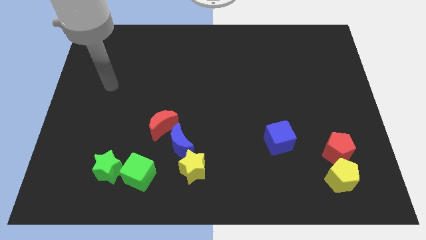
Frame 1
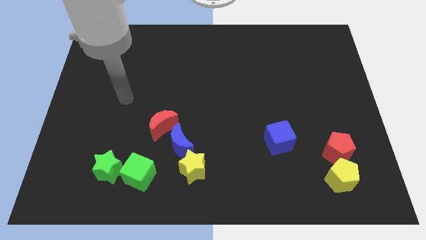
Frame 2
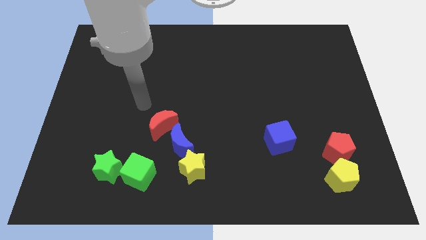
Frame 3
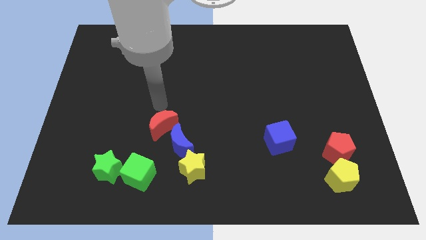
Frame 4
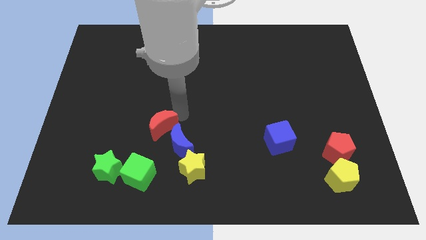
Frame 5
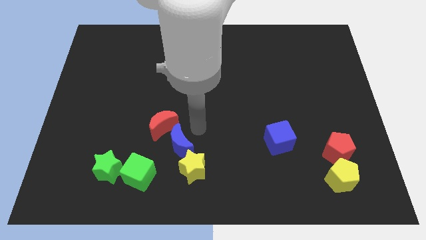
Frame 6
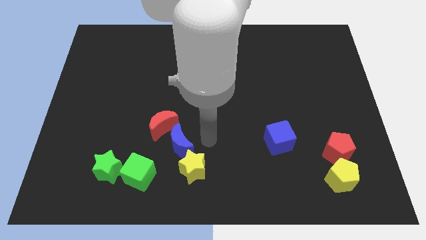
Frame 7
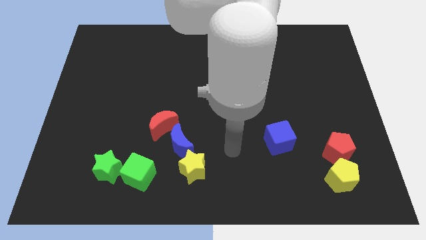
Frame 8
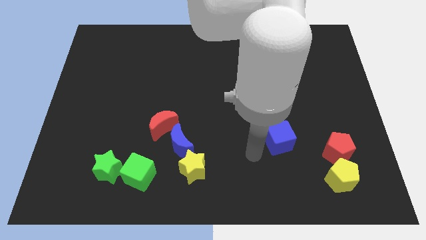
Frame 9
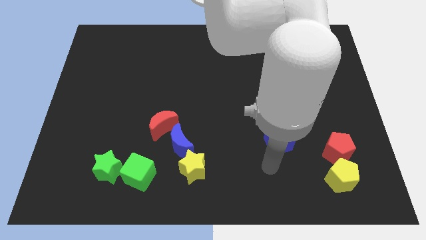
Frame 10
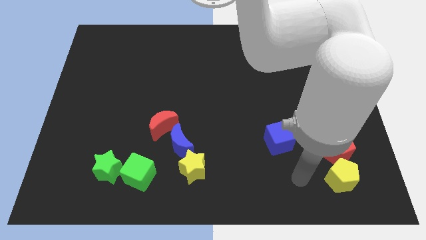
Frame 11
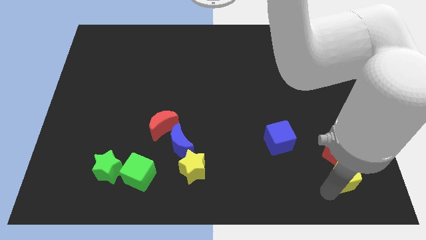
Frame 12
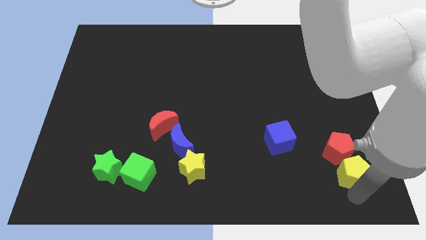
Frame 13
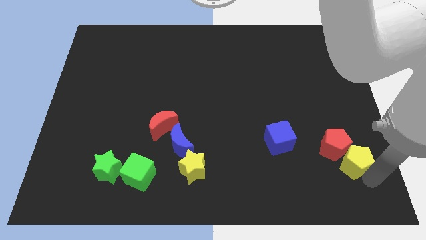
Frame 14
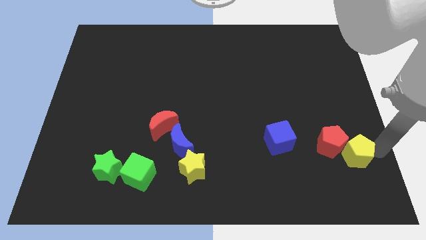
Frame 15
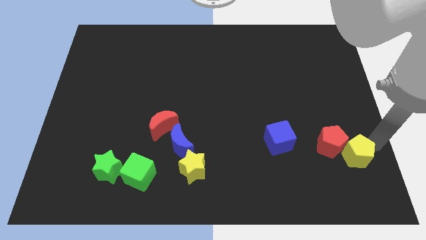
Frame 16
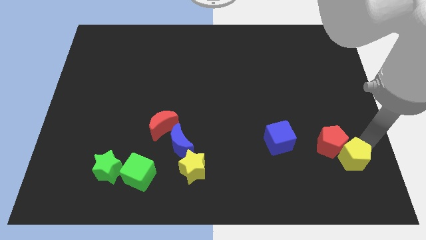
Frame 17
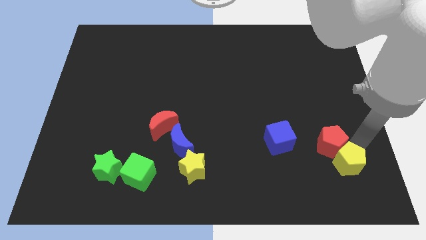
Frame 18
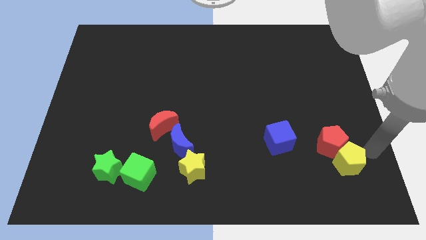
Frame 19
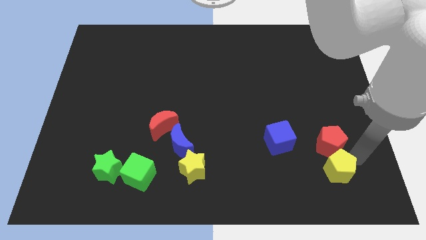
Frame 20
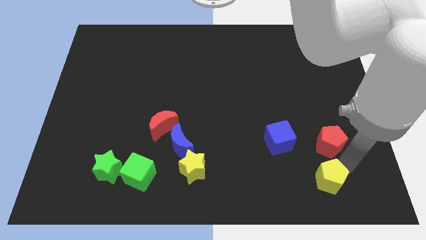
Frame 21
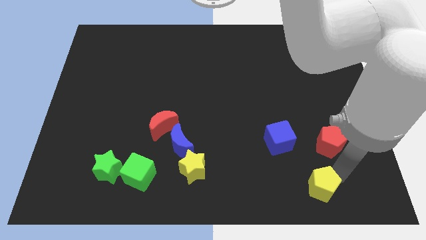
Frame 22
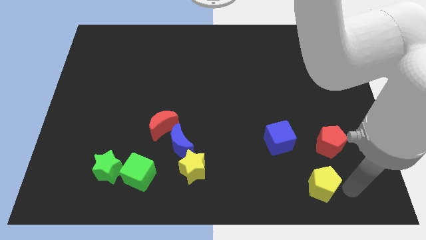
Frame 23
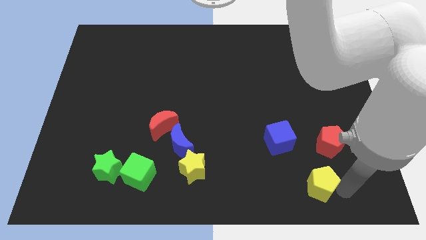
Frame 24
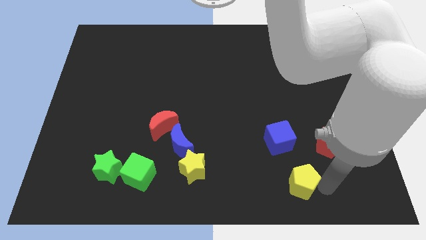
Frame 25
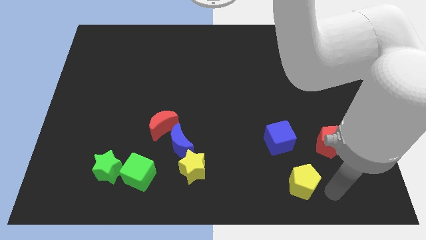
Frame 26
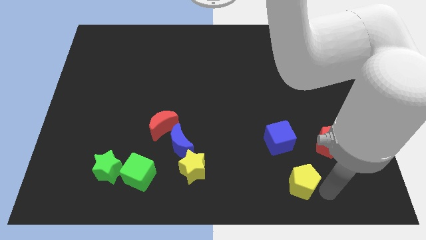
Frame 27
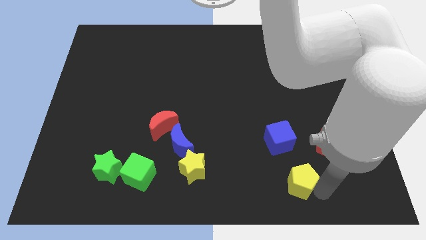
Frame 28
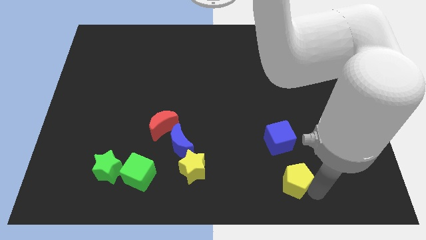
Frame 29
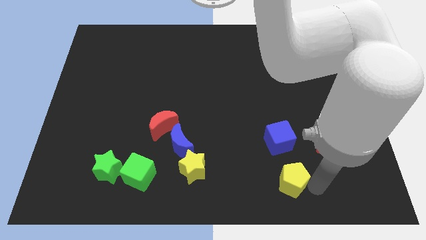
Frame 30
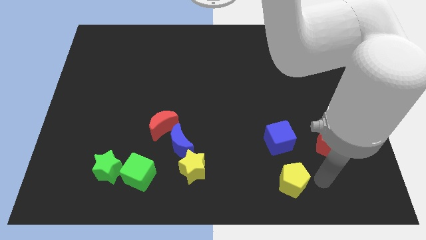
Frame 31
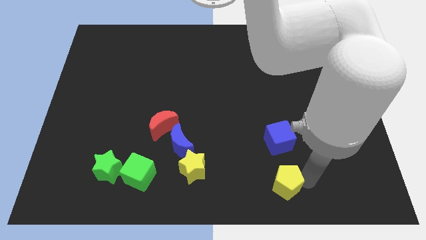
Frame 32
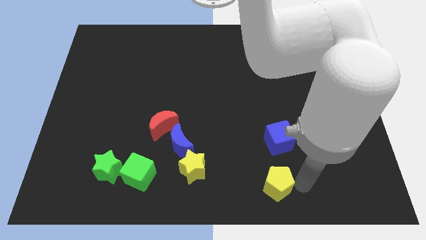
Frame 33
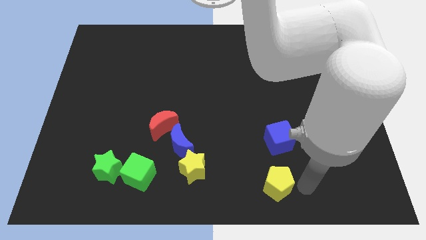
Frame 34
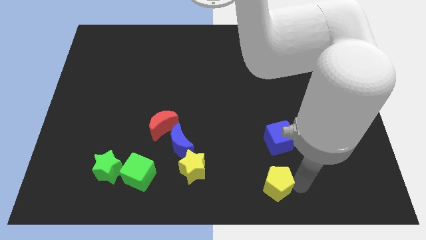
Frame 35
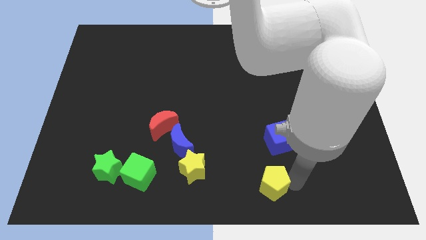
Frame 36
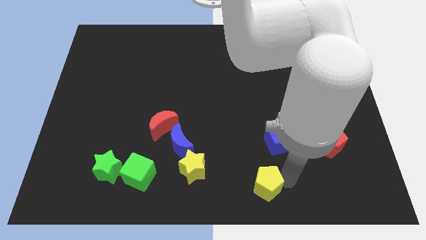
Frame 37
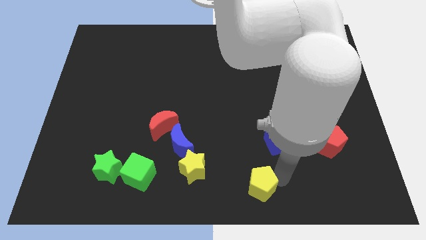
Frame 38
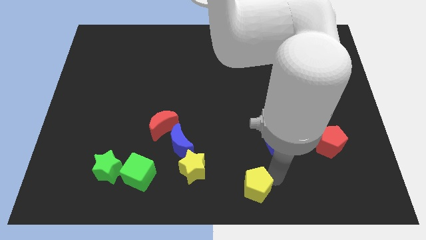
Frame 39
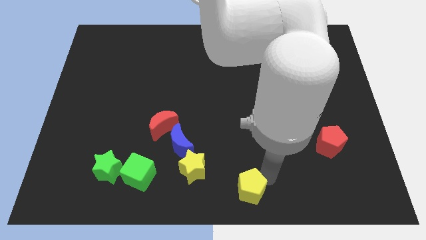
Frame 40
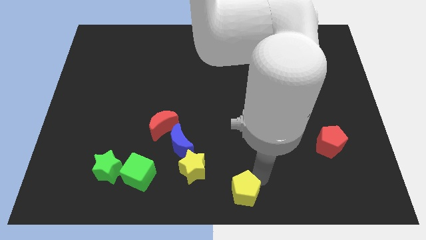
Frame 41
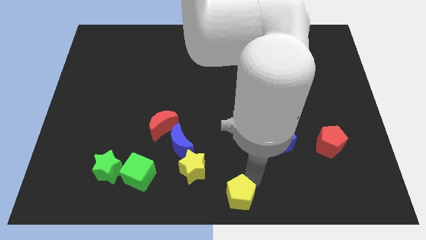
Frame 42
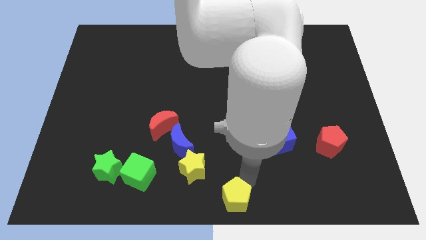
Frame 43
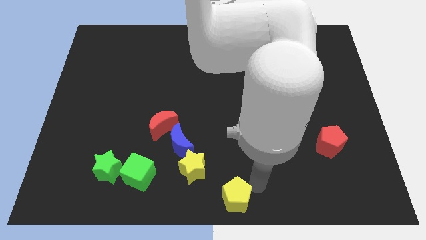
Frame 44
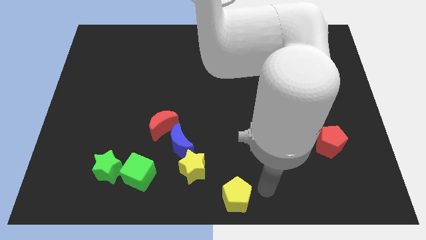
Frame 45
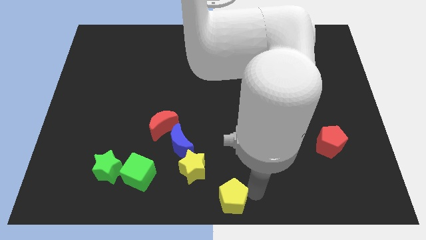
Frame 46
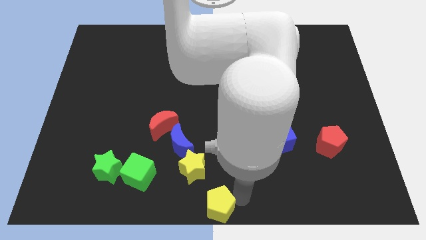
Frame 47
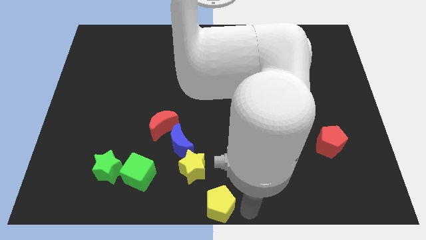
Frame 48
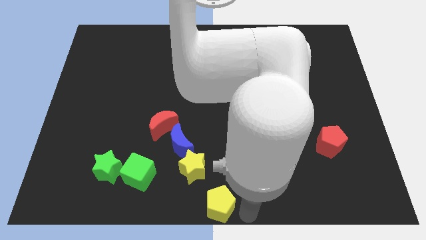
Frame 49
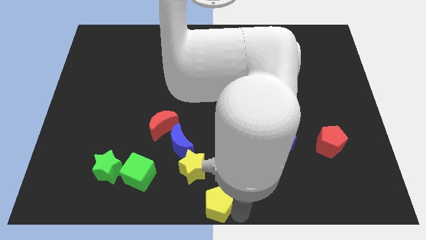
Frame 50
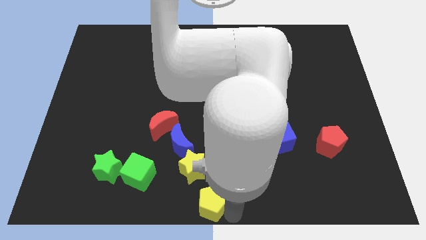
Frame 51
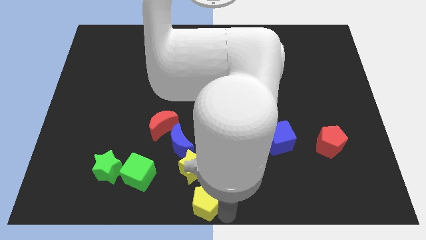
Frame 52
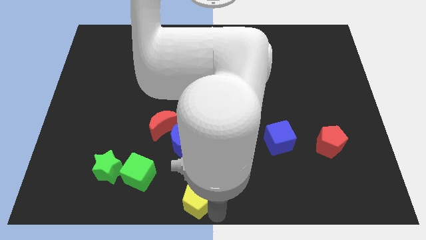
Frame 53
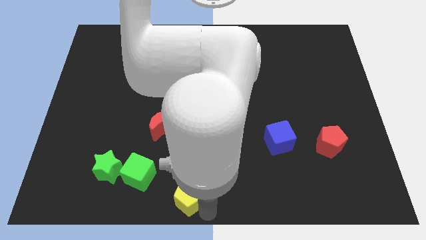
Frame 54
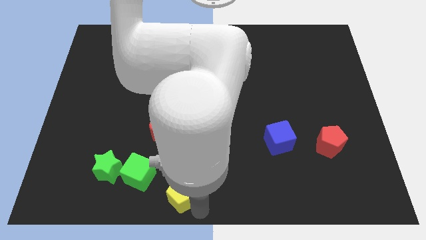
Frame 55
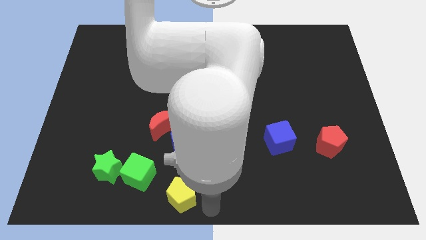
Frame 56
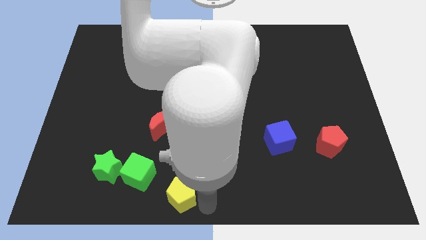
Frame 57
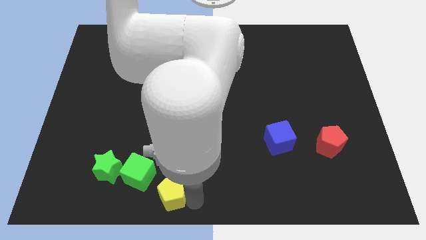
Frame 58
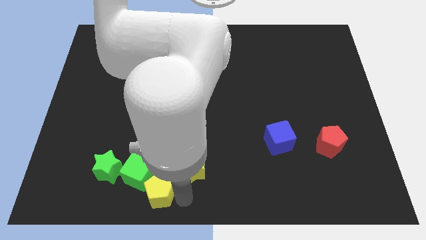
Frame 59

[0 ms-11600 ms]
put the yellow pentagon towards the green cube

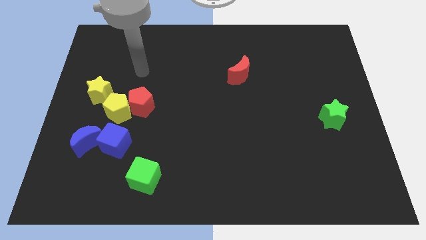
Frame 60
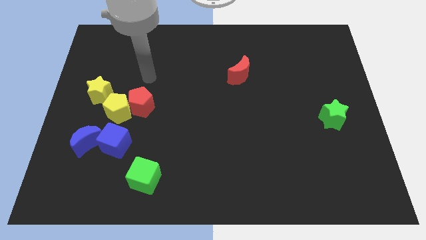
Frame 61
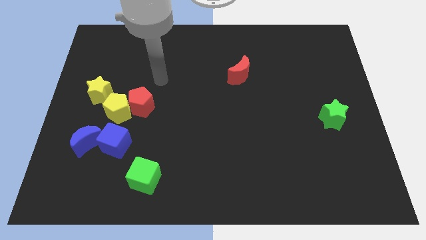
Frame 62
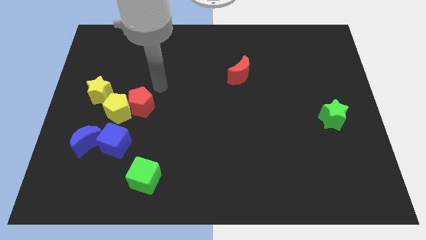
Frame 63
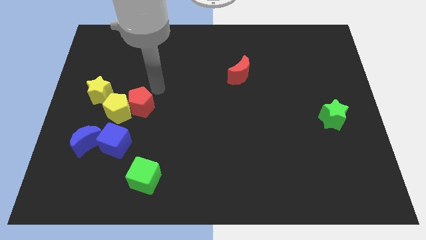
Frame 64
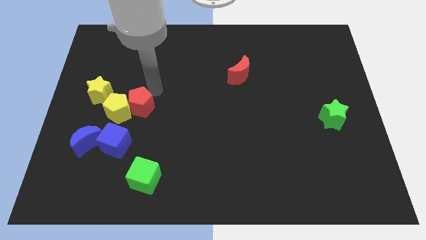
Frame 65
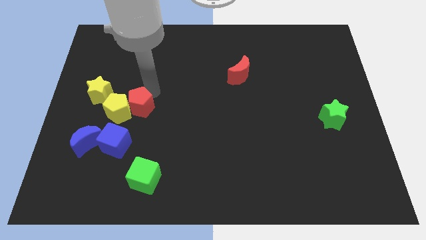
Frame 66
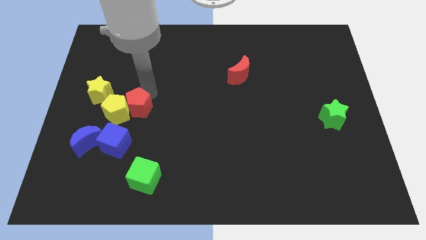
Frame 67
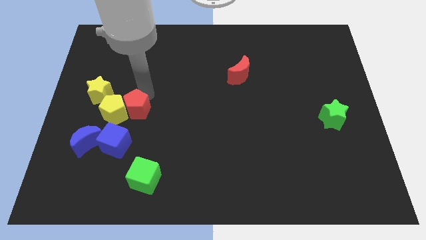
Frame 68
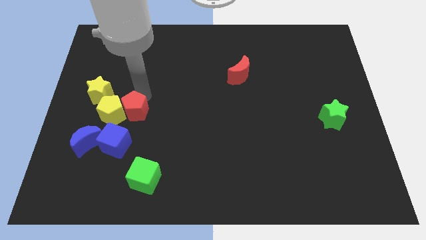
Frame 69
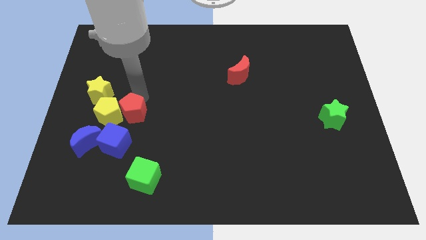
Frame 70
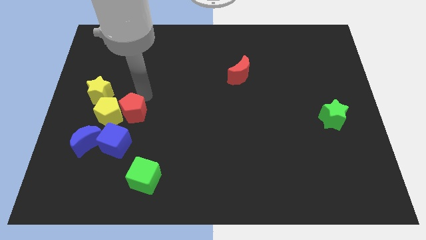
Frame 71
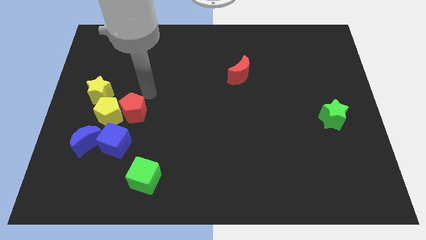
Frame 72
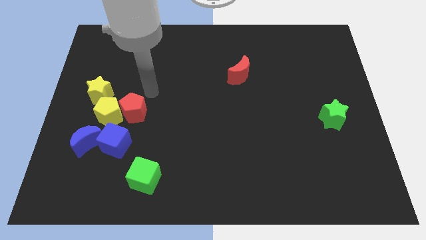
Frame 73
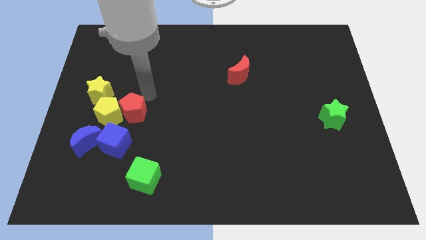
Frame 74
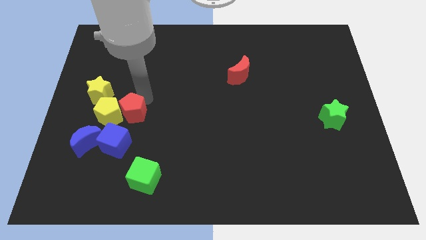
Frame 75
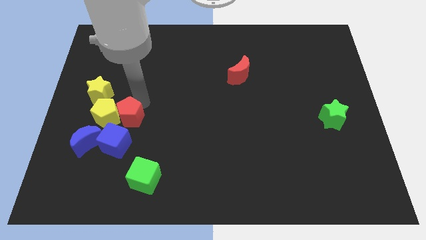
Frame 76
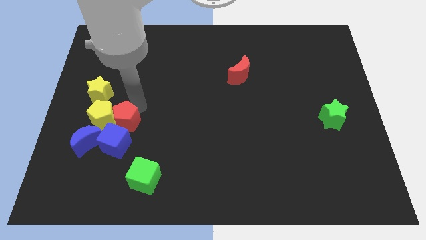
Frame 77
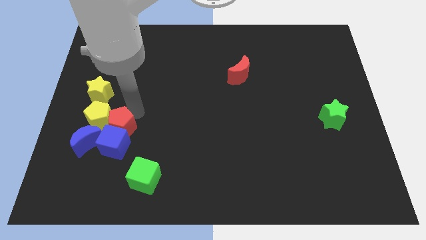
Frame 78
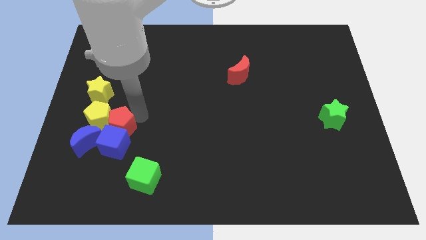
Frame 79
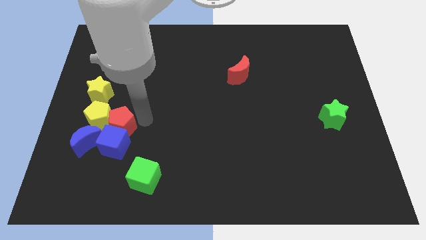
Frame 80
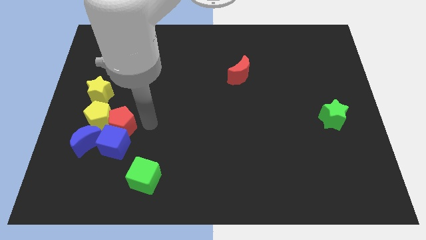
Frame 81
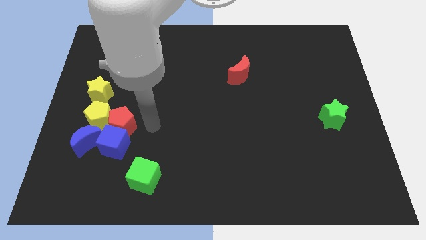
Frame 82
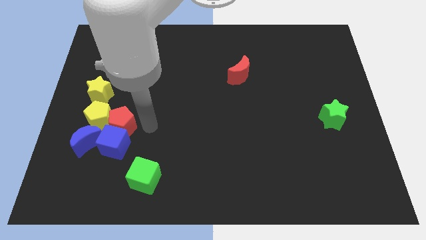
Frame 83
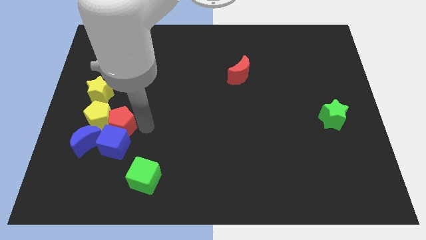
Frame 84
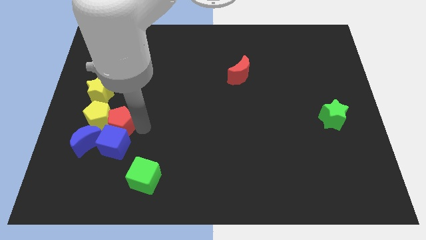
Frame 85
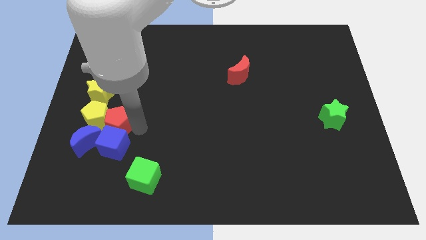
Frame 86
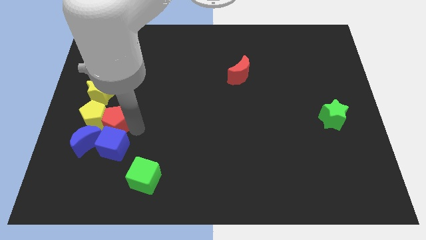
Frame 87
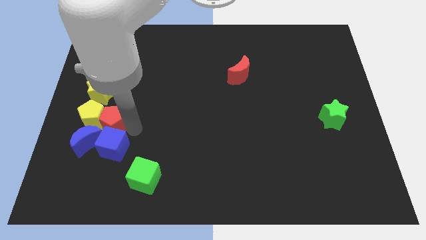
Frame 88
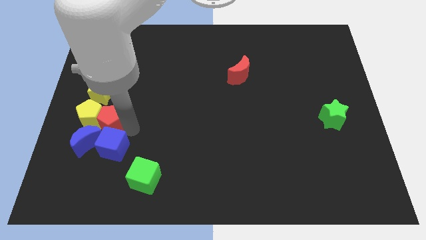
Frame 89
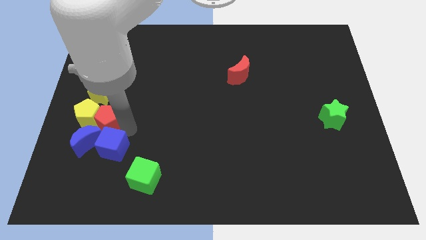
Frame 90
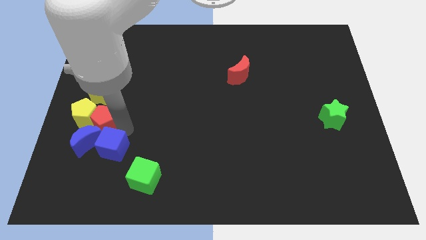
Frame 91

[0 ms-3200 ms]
put the red pentagon next to the blue moon
